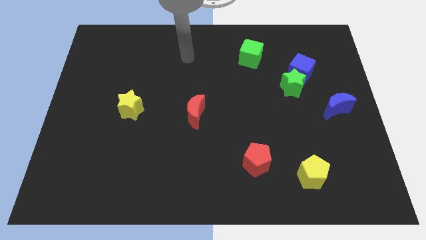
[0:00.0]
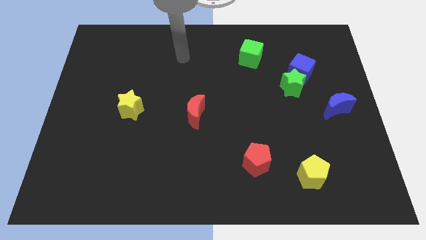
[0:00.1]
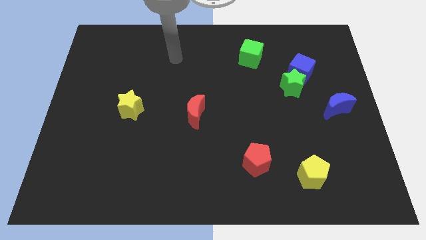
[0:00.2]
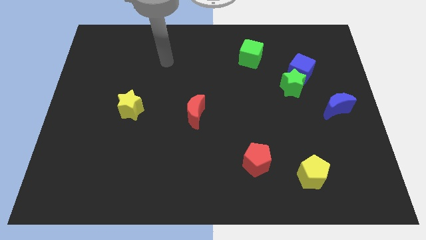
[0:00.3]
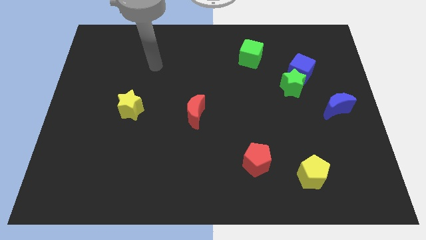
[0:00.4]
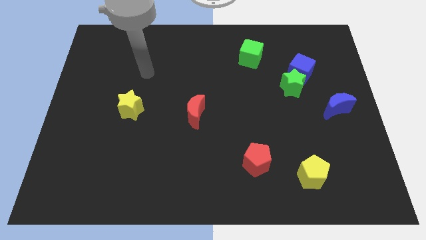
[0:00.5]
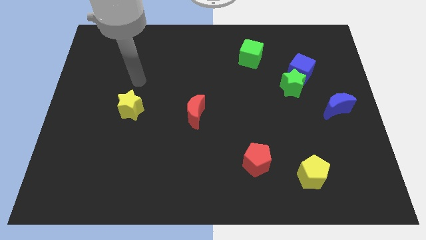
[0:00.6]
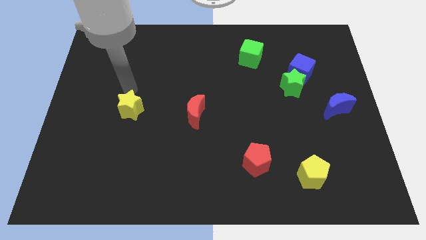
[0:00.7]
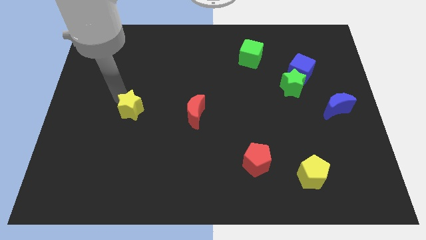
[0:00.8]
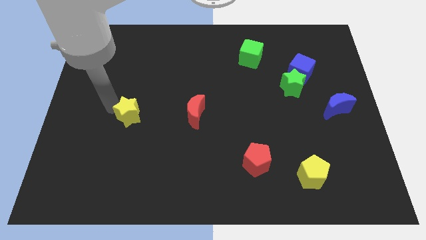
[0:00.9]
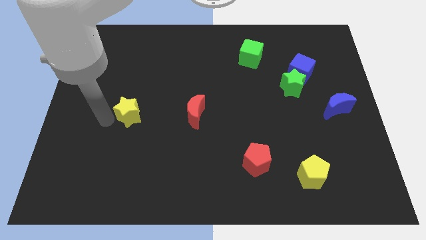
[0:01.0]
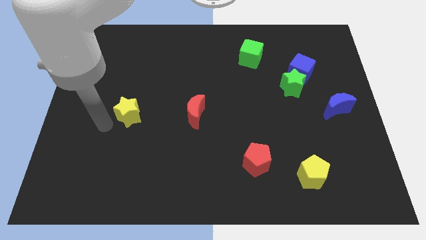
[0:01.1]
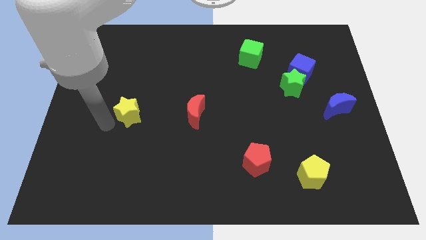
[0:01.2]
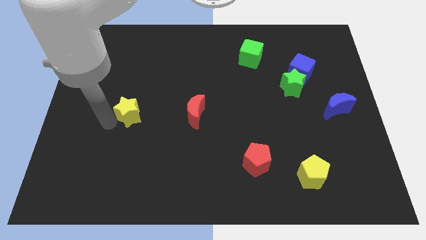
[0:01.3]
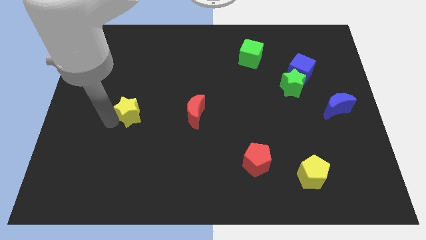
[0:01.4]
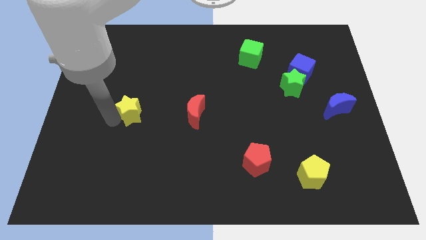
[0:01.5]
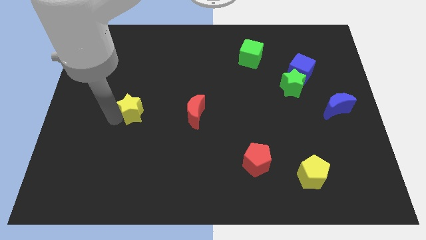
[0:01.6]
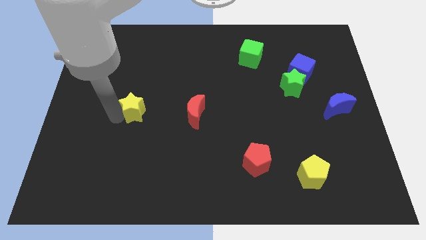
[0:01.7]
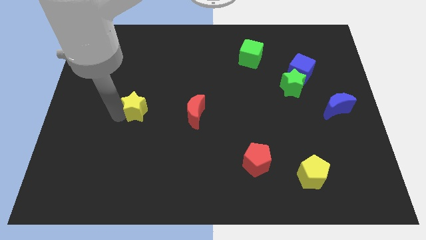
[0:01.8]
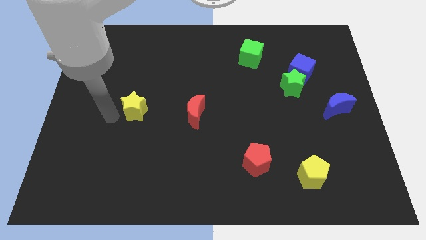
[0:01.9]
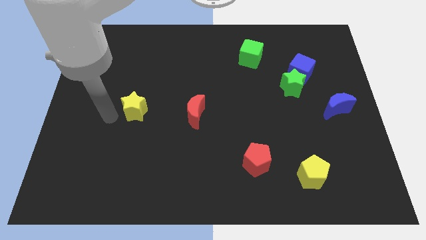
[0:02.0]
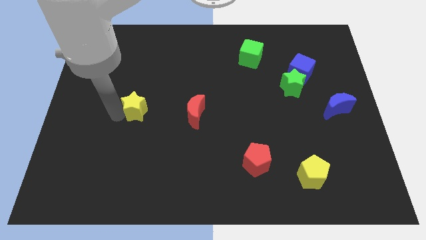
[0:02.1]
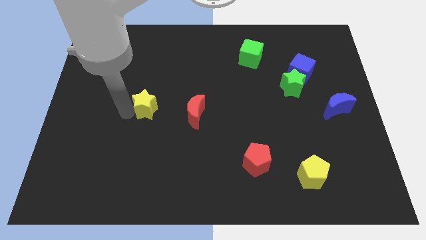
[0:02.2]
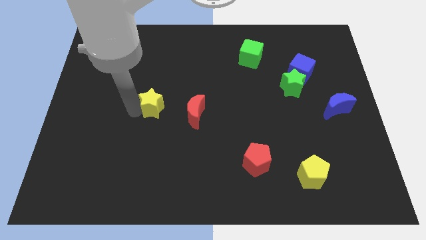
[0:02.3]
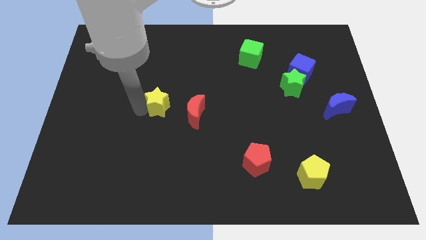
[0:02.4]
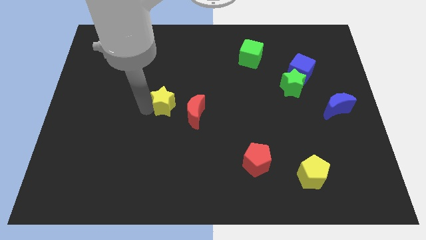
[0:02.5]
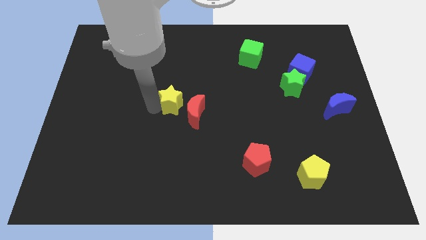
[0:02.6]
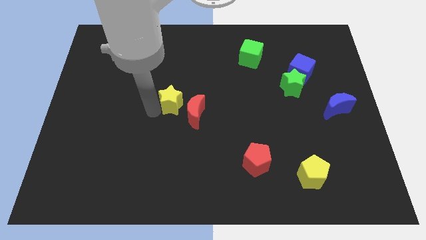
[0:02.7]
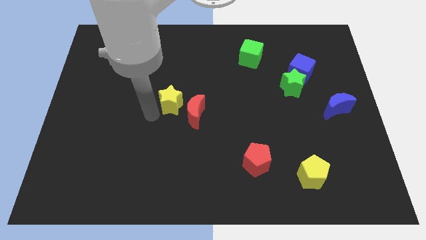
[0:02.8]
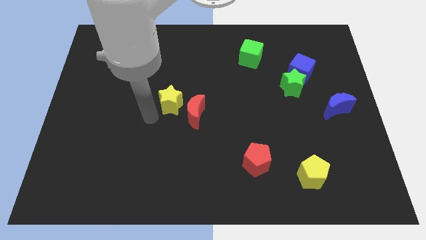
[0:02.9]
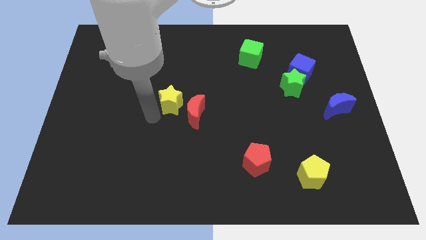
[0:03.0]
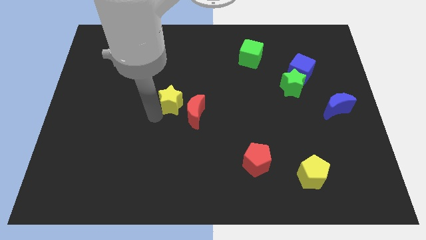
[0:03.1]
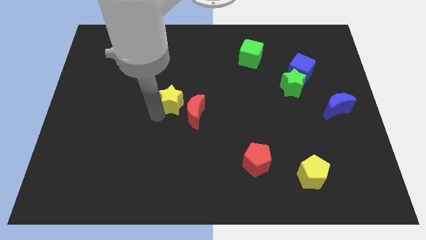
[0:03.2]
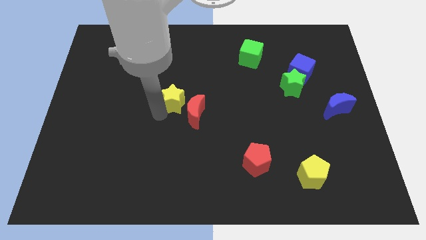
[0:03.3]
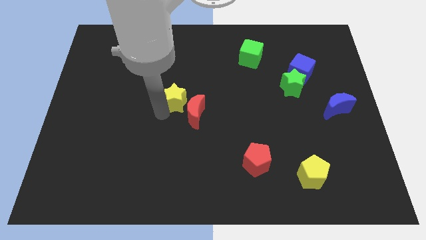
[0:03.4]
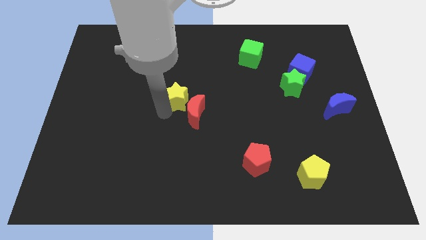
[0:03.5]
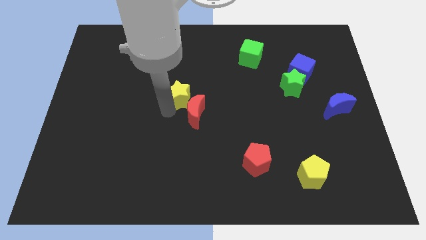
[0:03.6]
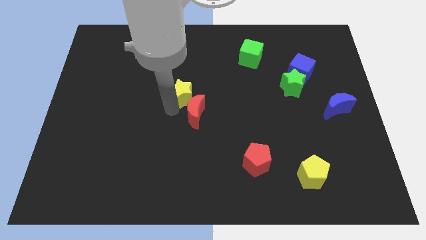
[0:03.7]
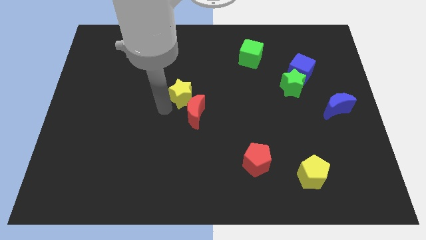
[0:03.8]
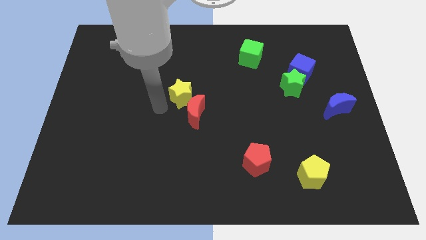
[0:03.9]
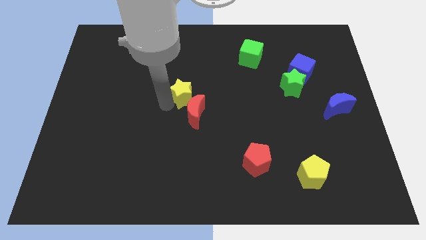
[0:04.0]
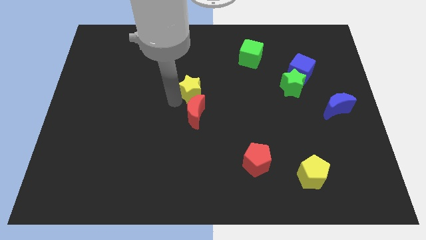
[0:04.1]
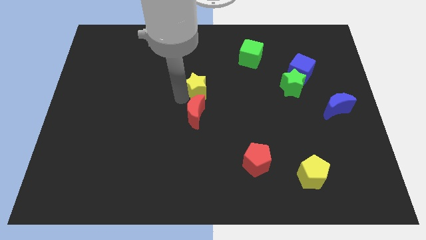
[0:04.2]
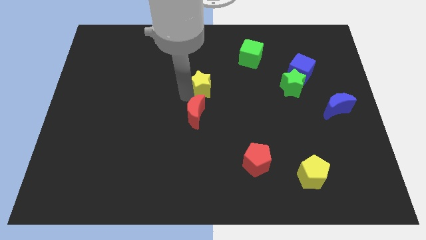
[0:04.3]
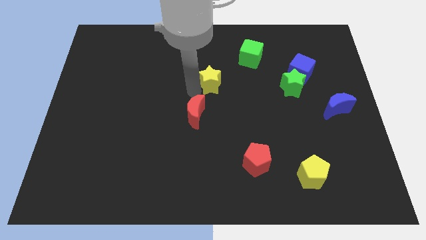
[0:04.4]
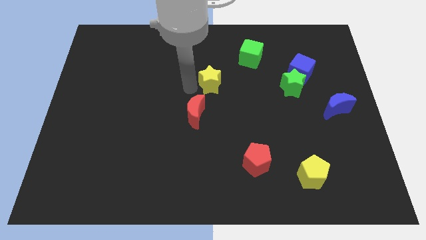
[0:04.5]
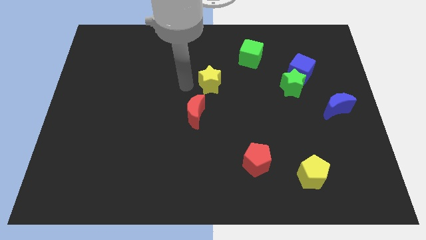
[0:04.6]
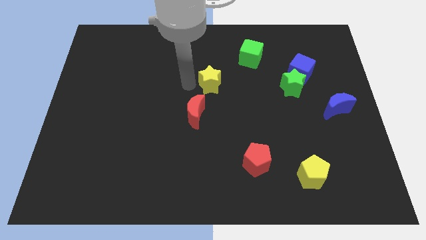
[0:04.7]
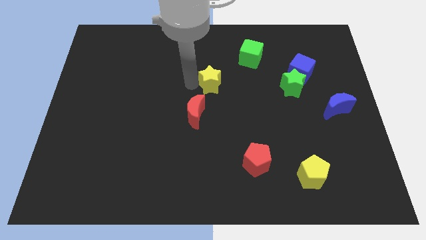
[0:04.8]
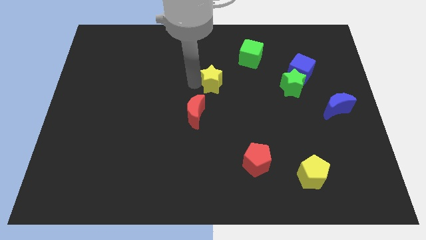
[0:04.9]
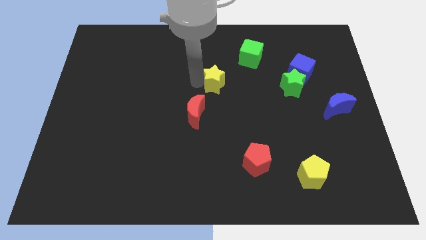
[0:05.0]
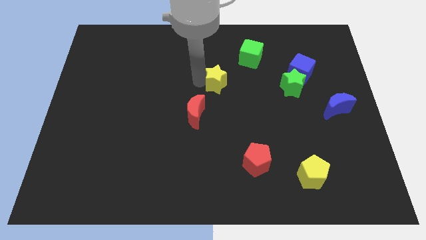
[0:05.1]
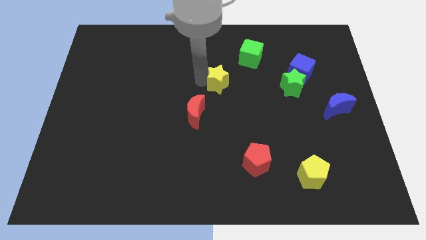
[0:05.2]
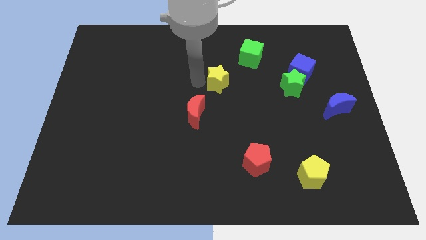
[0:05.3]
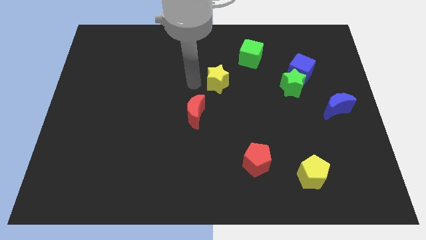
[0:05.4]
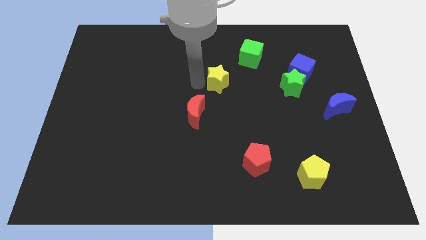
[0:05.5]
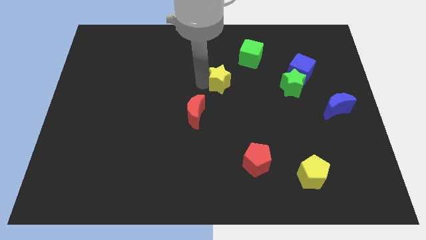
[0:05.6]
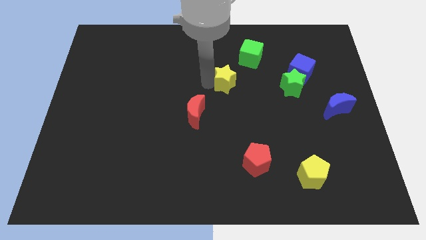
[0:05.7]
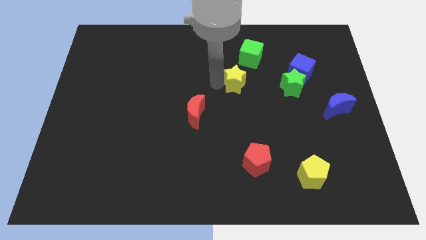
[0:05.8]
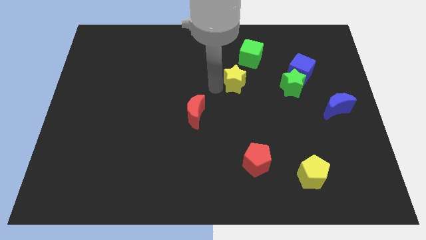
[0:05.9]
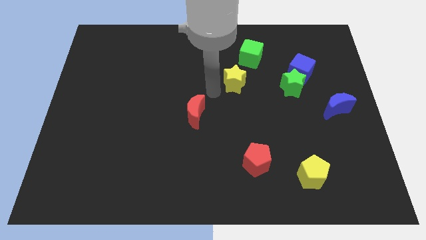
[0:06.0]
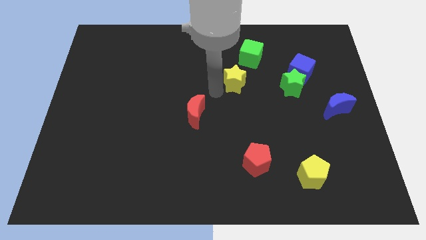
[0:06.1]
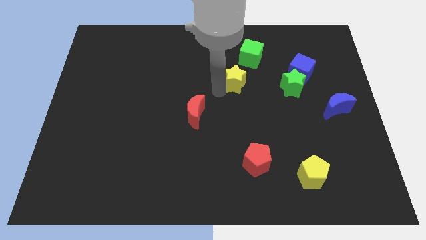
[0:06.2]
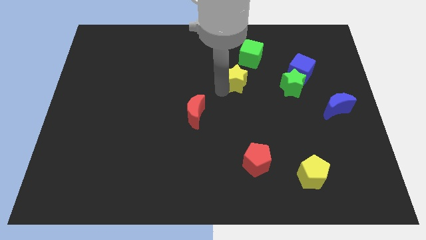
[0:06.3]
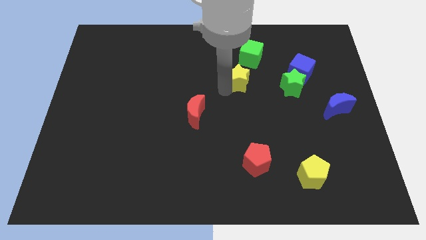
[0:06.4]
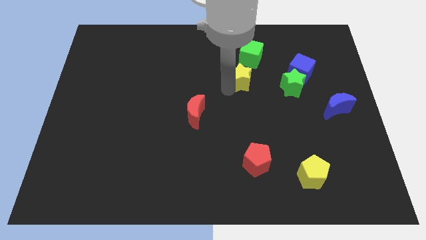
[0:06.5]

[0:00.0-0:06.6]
move the yellow star to the left of the blue cube
